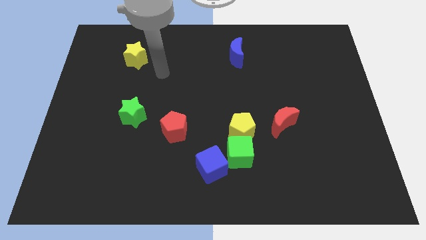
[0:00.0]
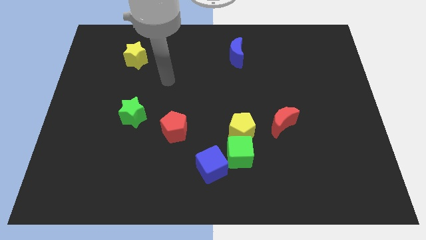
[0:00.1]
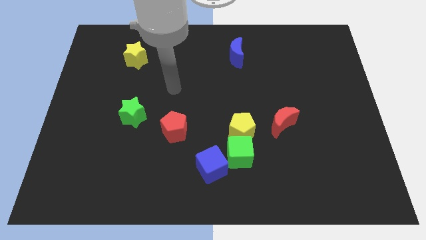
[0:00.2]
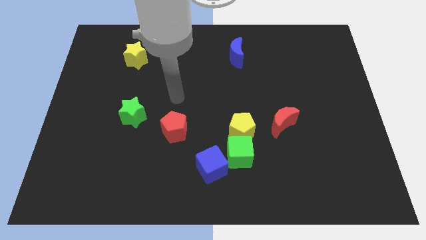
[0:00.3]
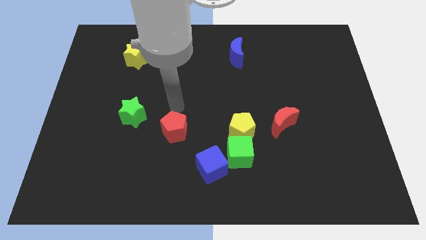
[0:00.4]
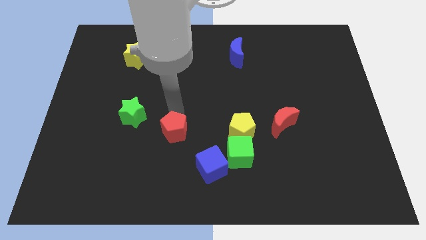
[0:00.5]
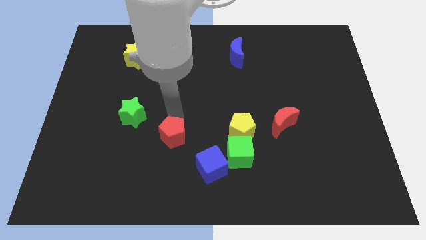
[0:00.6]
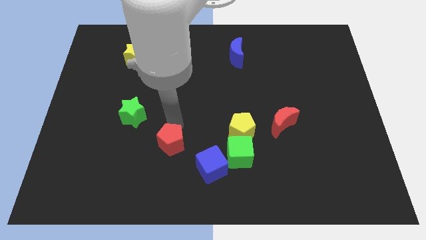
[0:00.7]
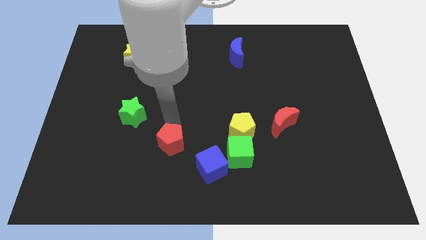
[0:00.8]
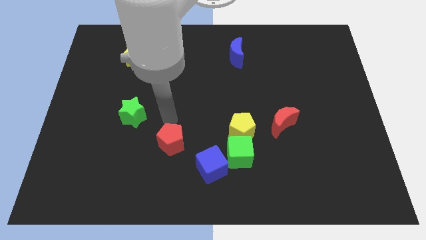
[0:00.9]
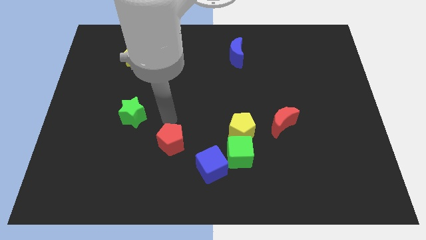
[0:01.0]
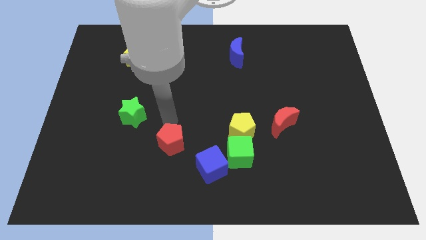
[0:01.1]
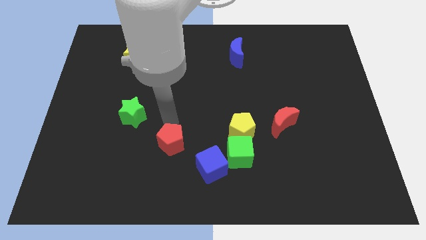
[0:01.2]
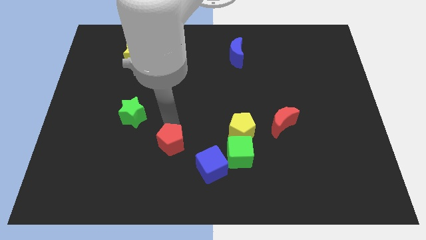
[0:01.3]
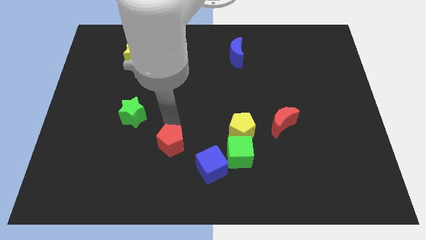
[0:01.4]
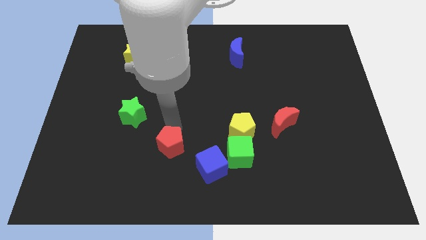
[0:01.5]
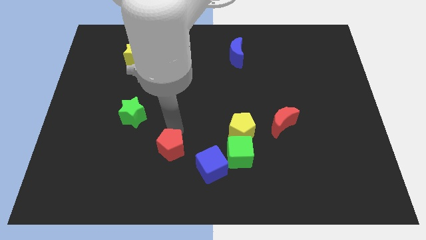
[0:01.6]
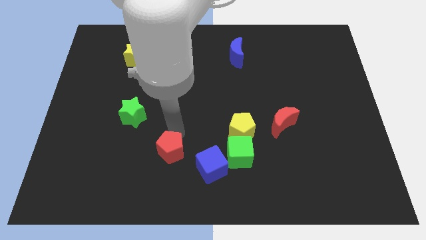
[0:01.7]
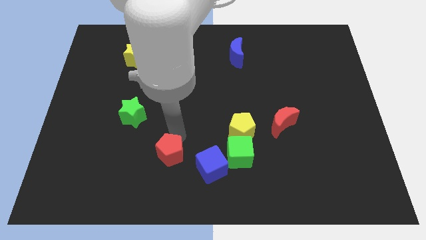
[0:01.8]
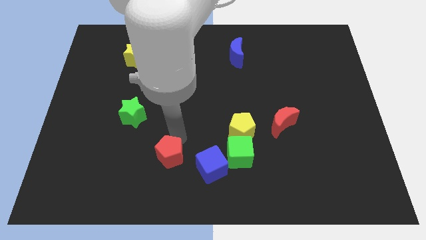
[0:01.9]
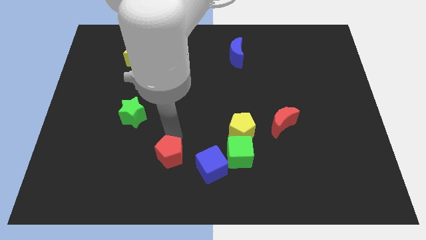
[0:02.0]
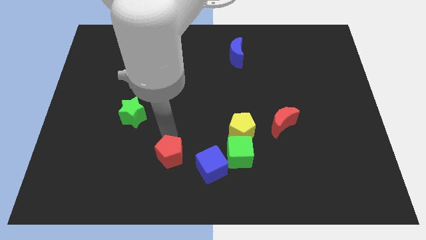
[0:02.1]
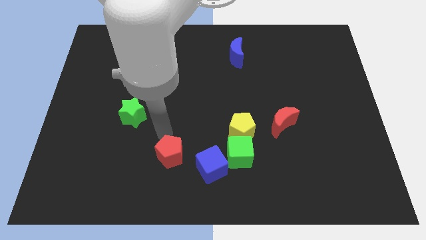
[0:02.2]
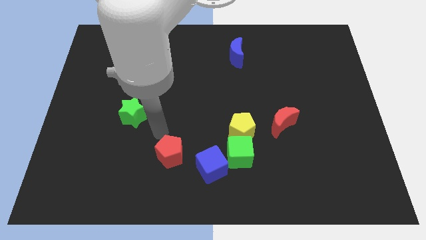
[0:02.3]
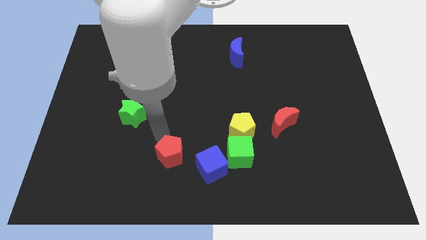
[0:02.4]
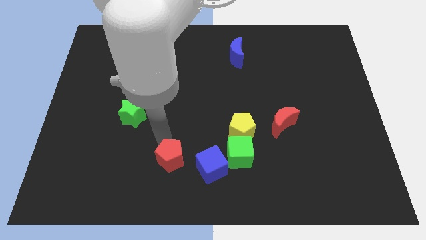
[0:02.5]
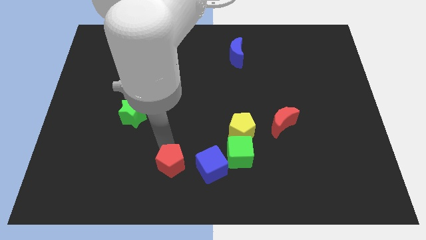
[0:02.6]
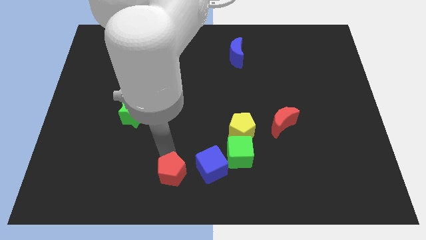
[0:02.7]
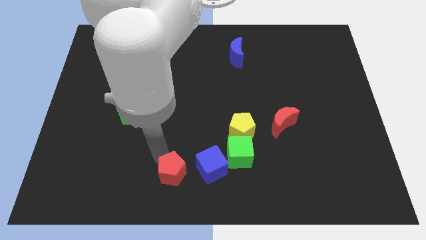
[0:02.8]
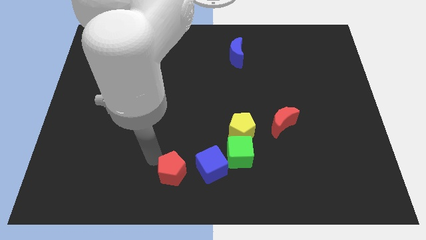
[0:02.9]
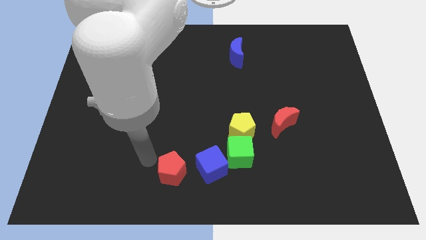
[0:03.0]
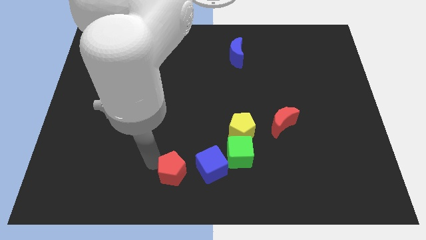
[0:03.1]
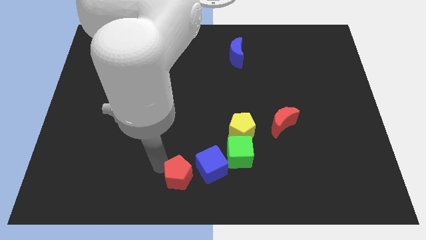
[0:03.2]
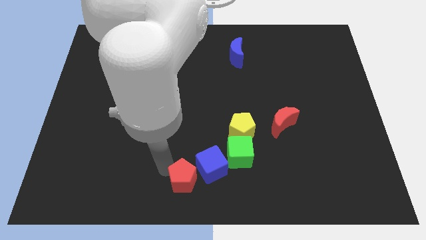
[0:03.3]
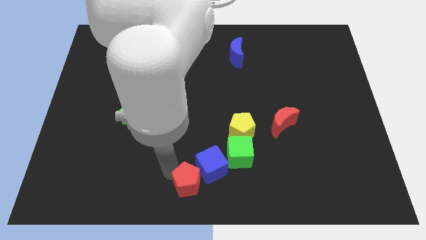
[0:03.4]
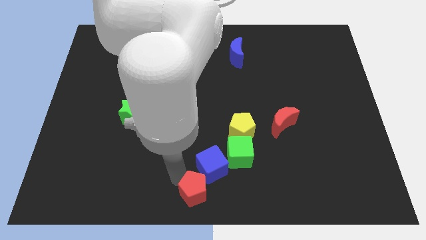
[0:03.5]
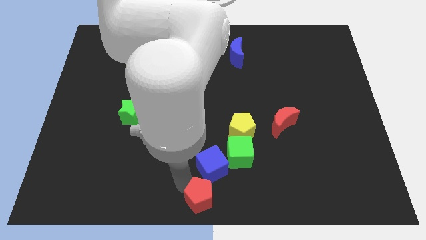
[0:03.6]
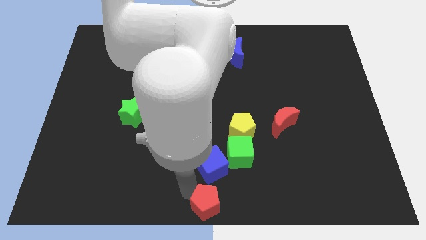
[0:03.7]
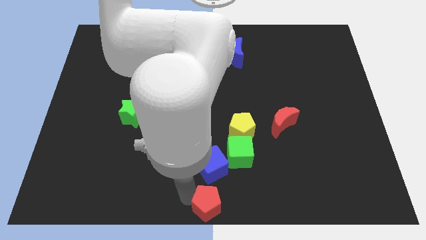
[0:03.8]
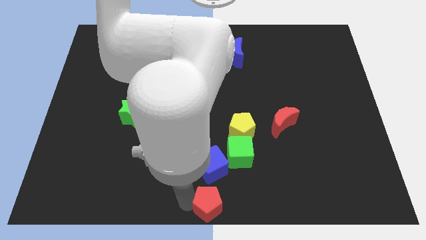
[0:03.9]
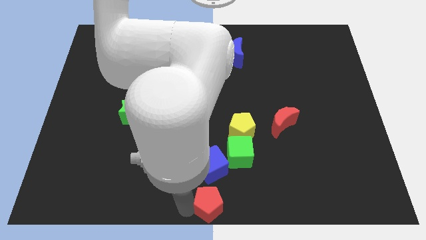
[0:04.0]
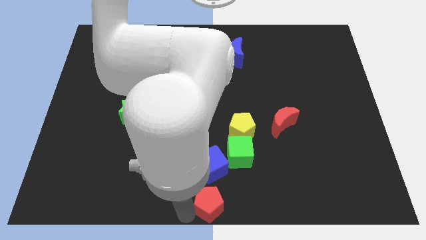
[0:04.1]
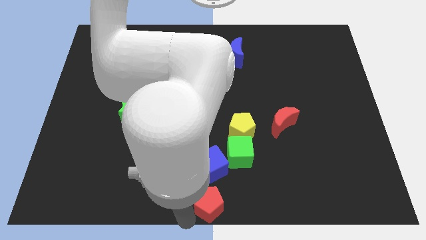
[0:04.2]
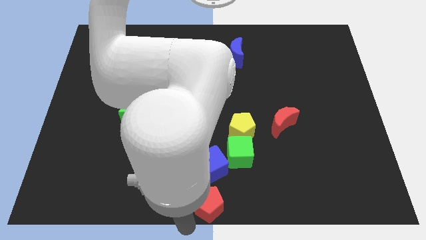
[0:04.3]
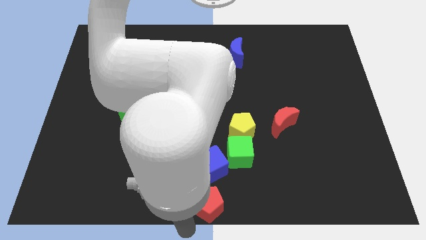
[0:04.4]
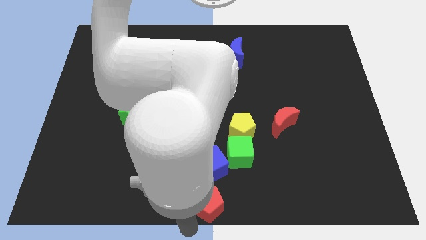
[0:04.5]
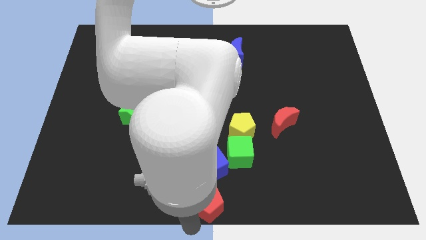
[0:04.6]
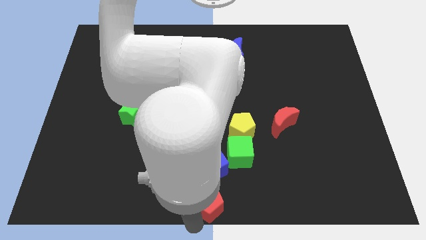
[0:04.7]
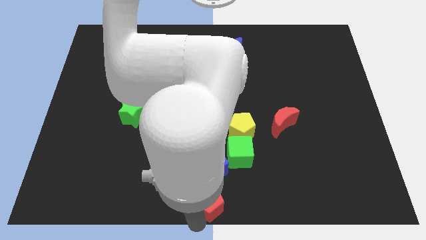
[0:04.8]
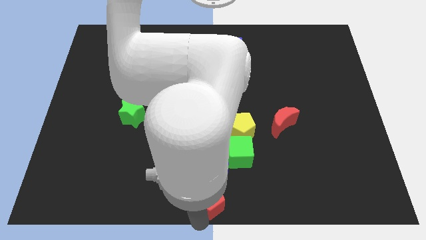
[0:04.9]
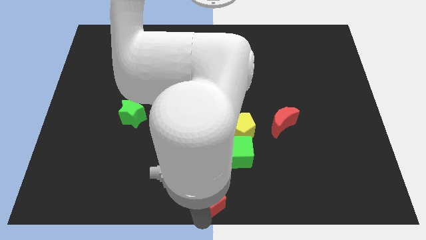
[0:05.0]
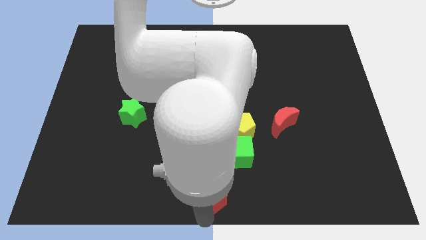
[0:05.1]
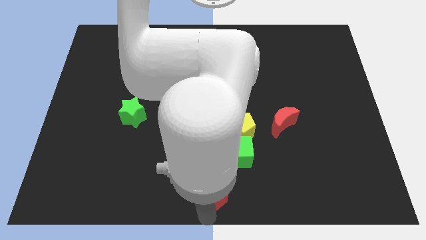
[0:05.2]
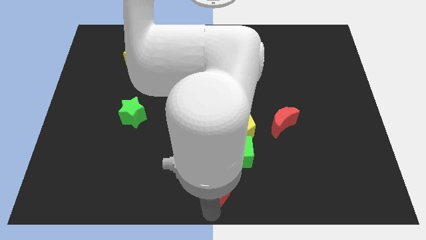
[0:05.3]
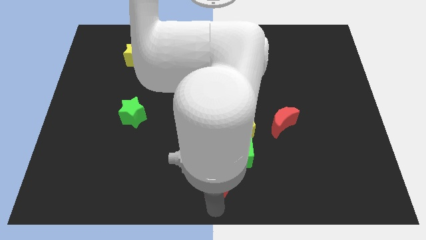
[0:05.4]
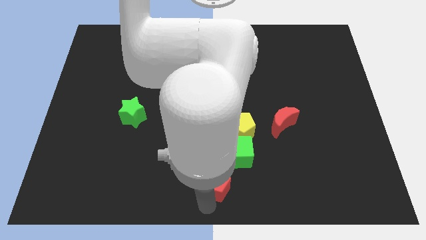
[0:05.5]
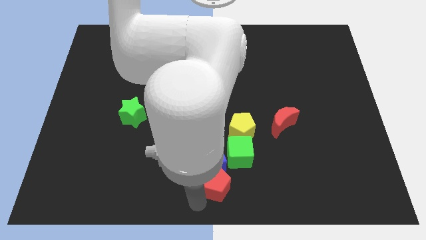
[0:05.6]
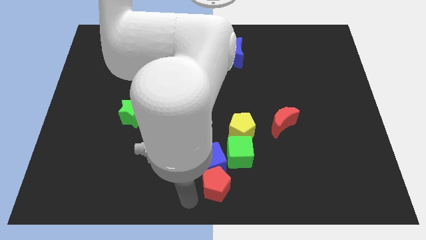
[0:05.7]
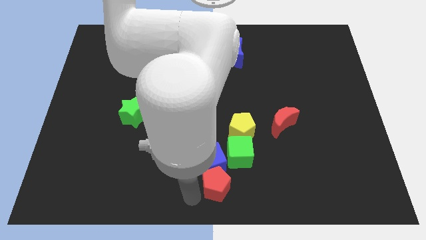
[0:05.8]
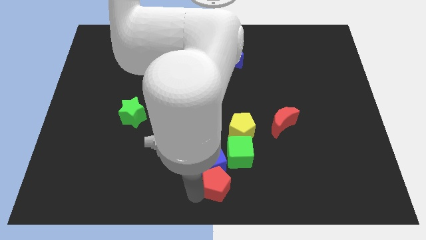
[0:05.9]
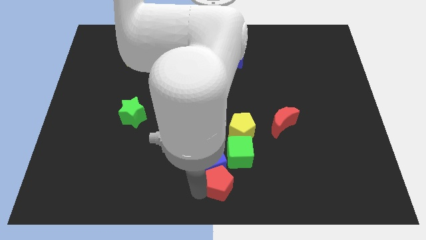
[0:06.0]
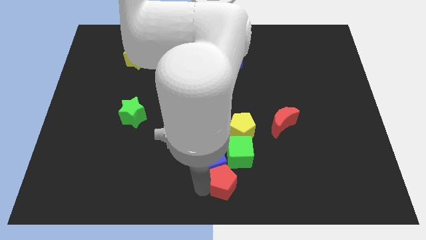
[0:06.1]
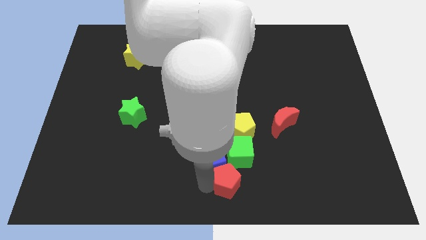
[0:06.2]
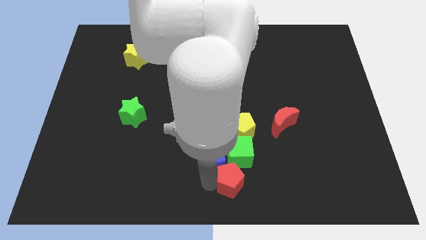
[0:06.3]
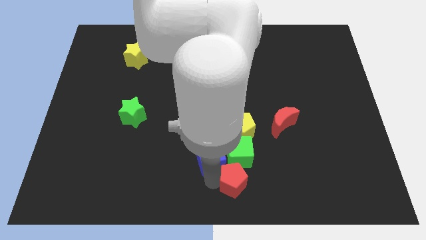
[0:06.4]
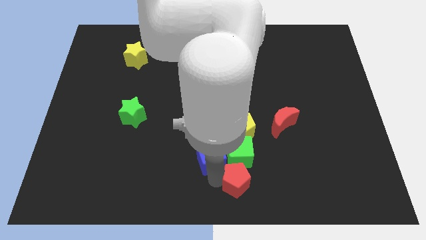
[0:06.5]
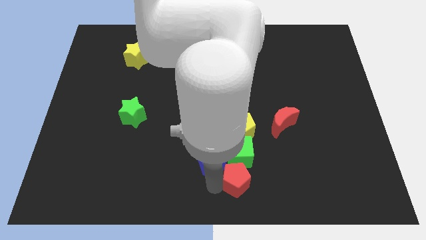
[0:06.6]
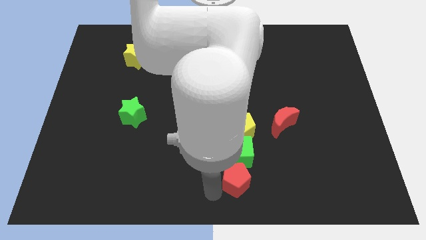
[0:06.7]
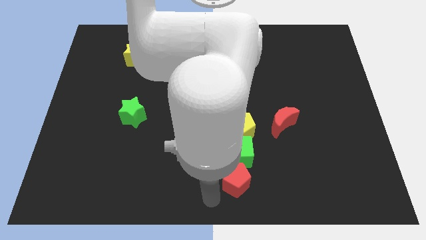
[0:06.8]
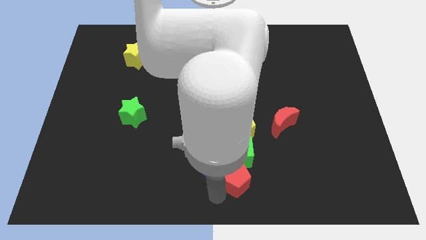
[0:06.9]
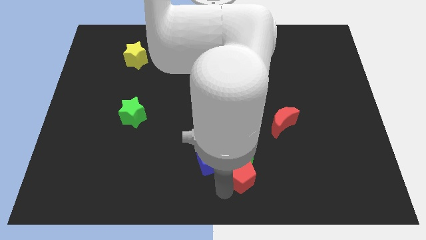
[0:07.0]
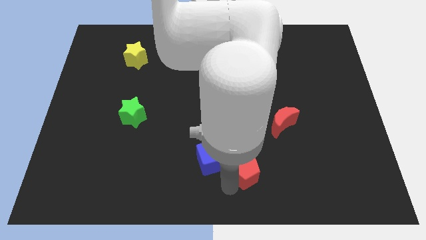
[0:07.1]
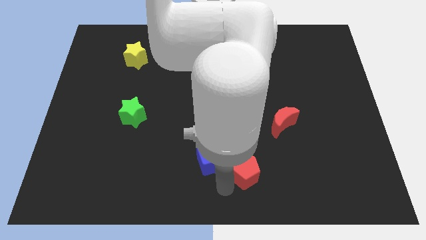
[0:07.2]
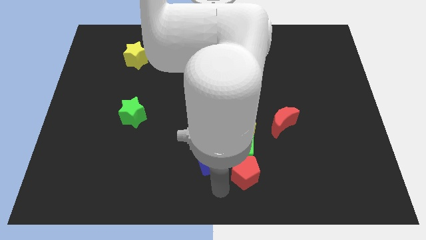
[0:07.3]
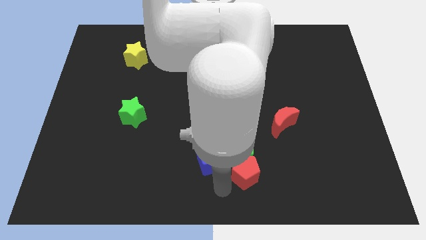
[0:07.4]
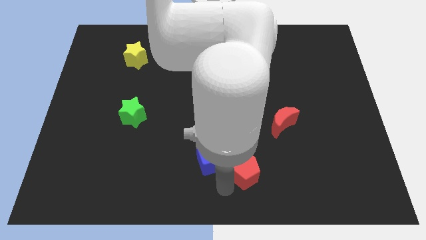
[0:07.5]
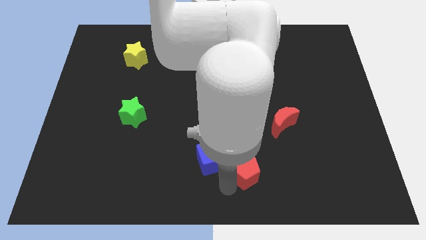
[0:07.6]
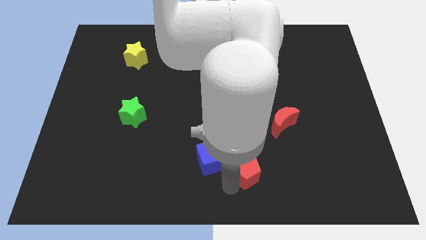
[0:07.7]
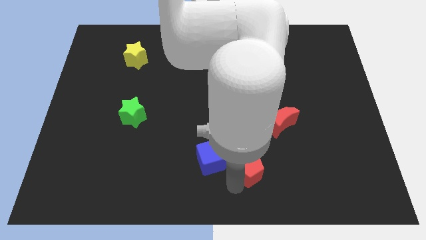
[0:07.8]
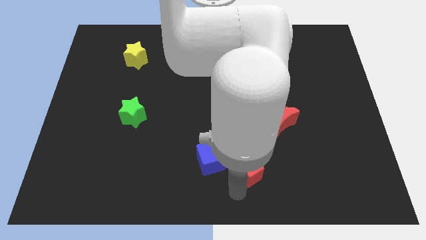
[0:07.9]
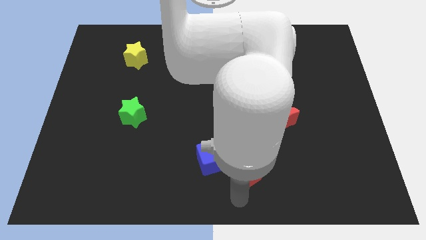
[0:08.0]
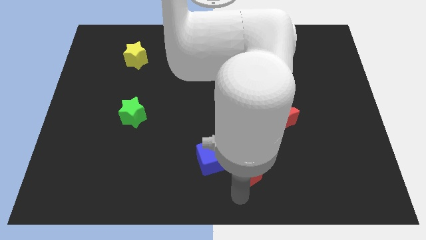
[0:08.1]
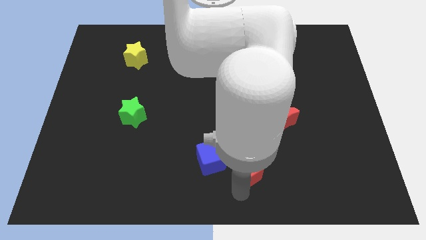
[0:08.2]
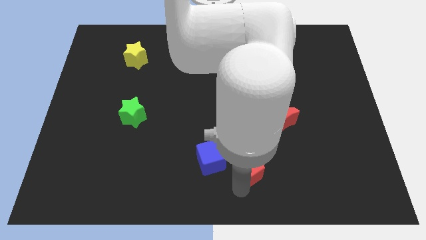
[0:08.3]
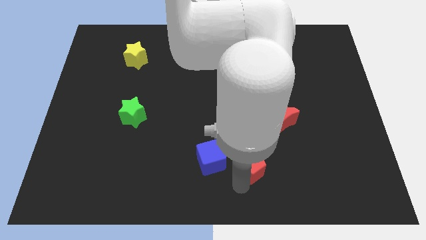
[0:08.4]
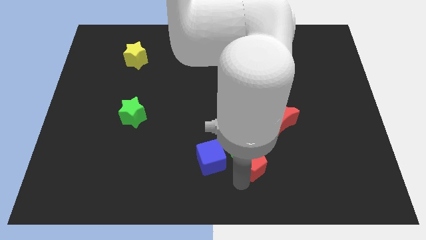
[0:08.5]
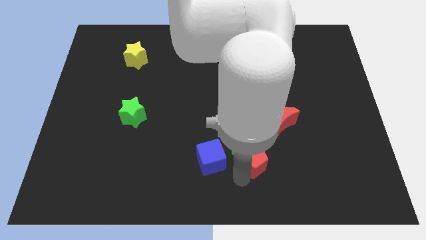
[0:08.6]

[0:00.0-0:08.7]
put the red pentagon to the bottom left side of the red moon
